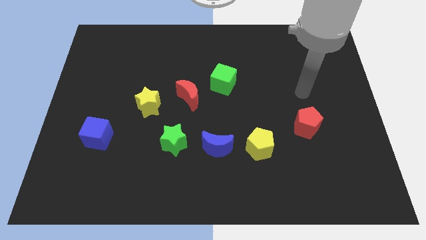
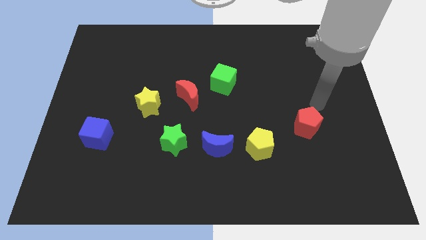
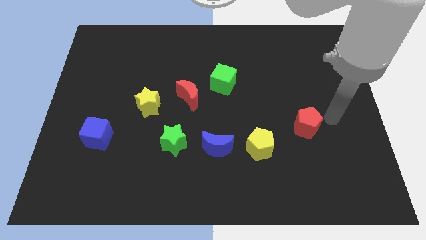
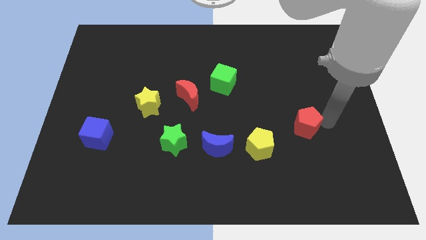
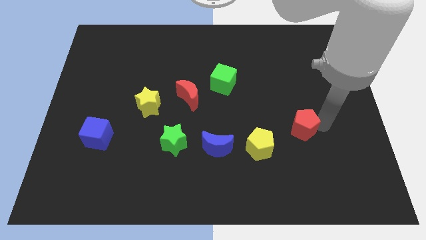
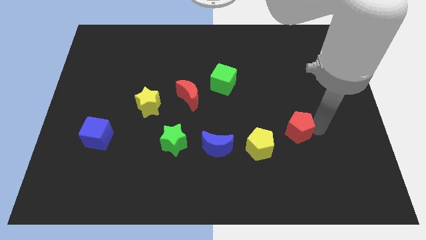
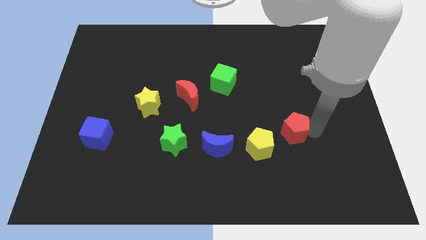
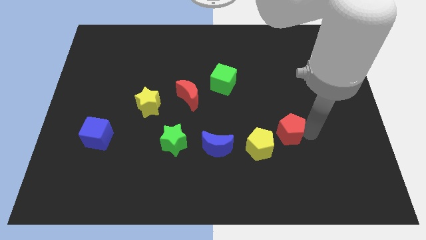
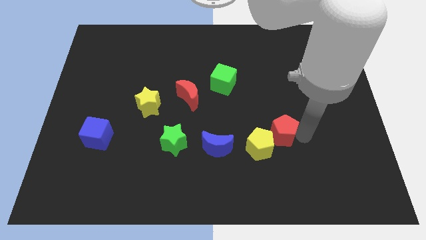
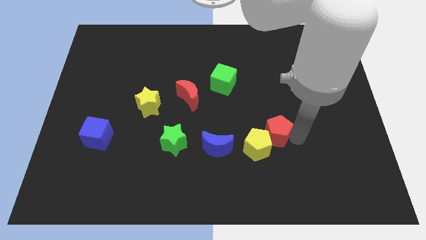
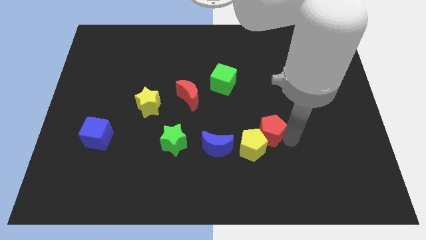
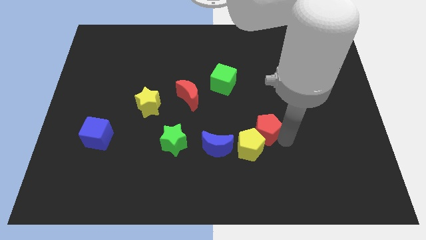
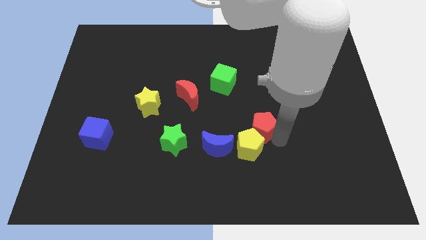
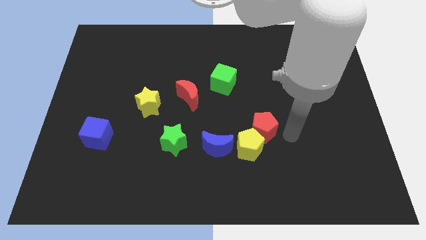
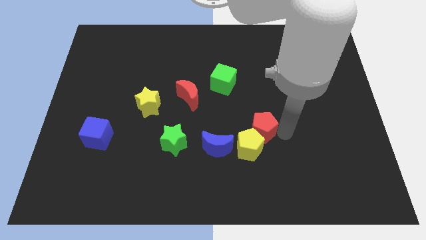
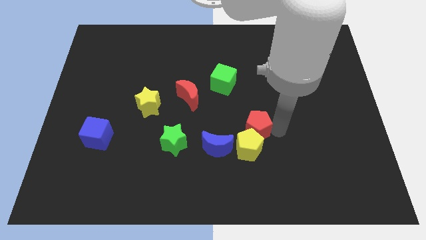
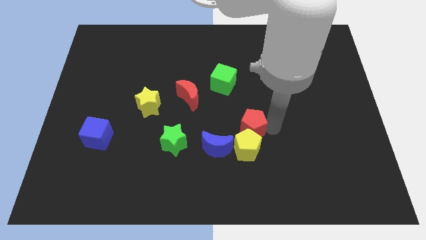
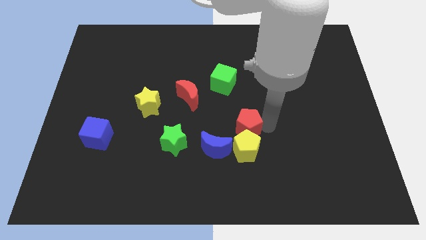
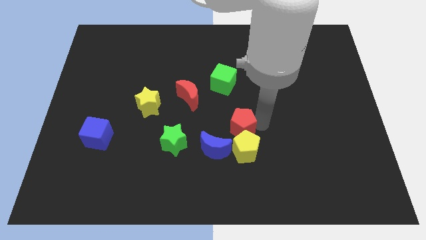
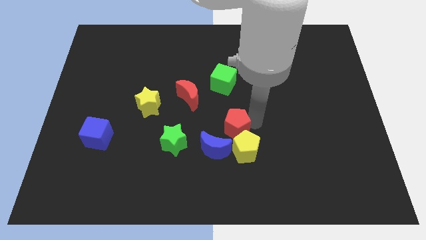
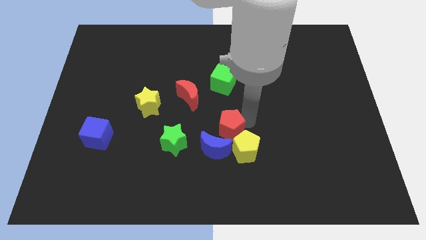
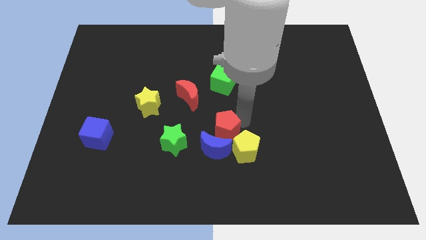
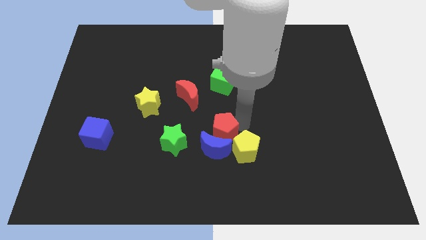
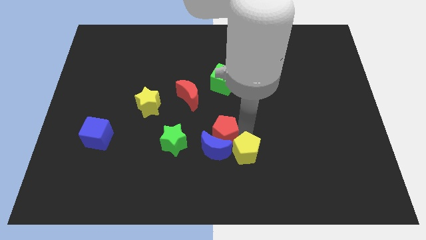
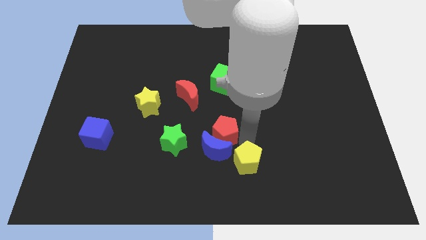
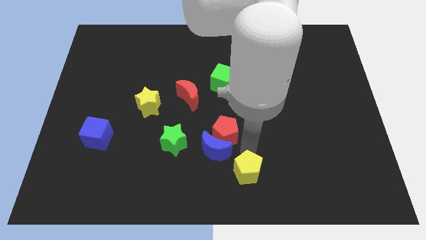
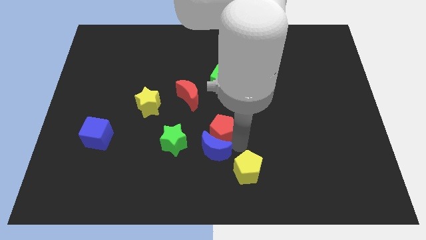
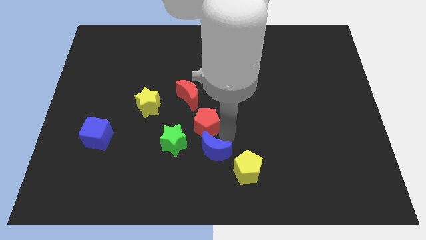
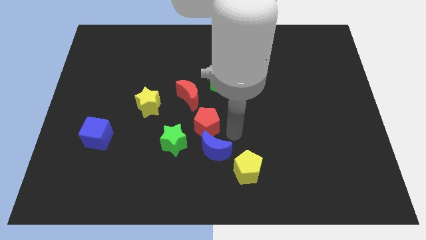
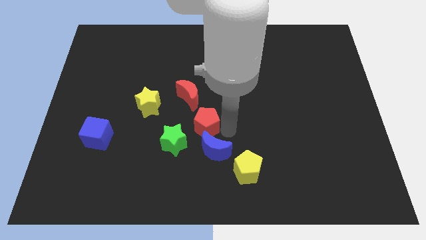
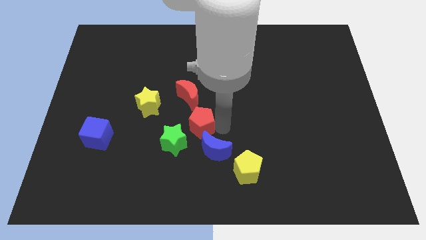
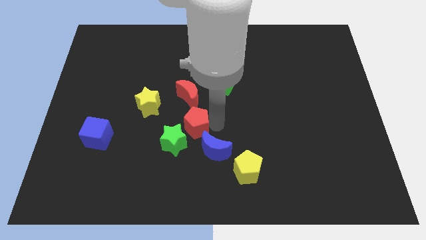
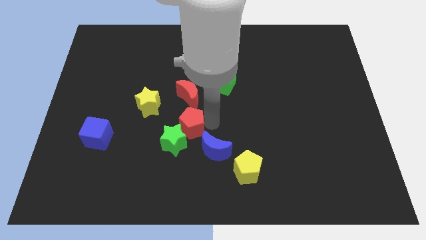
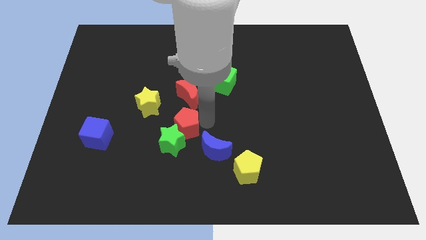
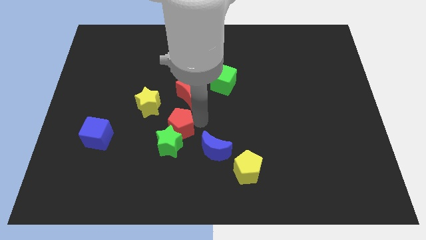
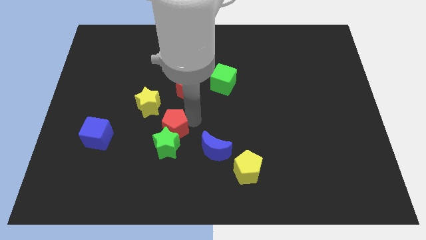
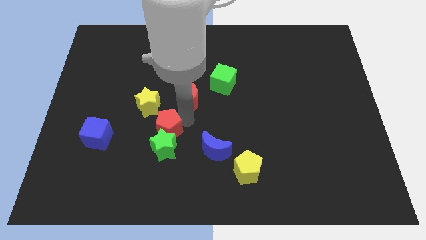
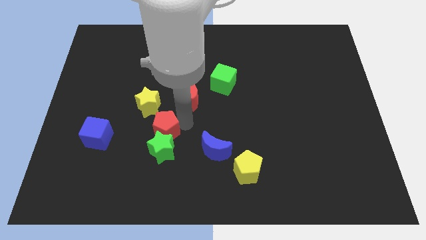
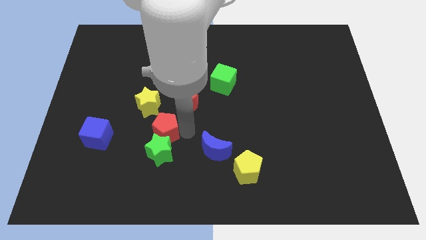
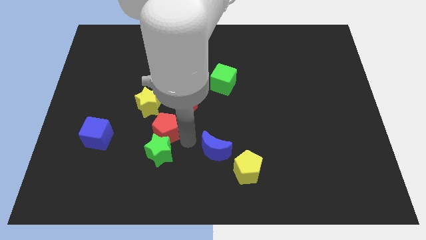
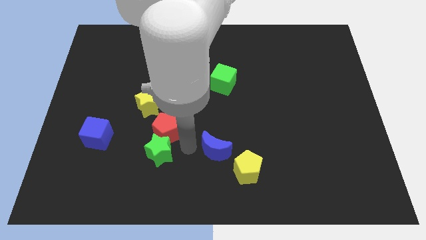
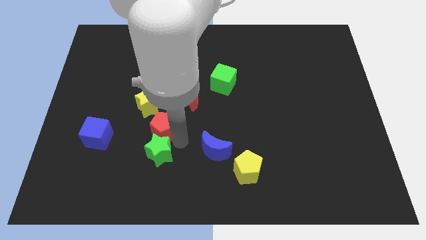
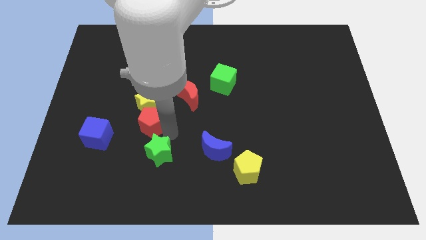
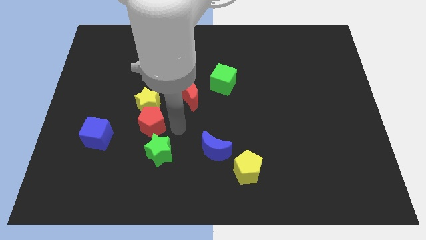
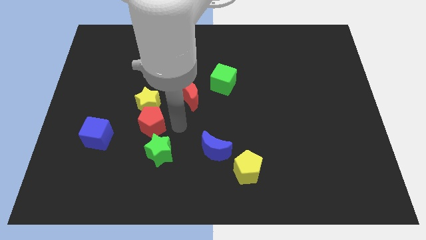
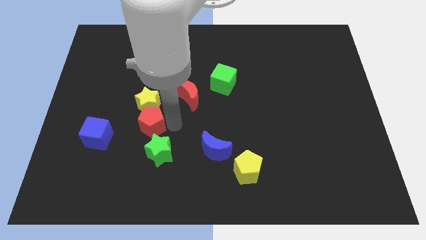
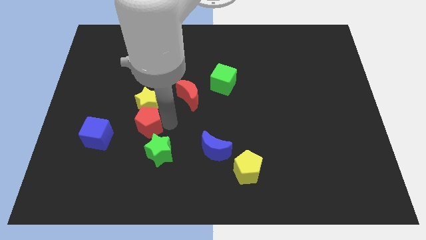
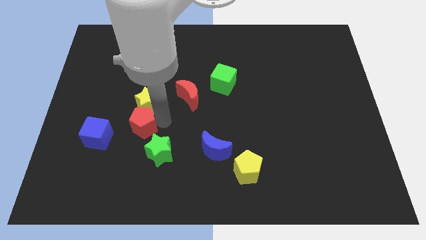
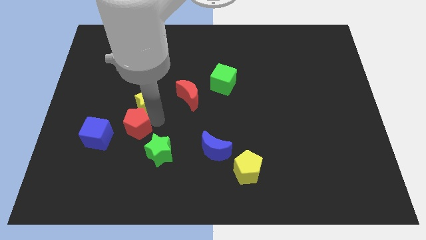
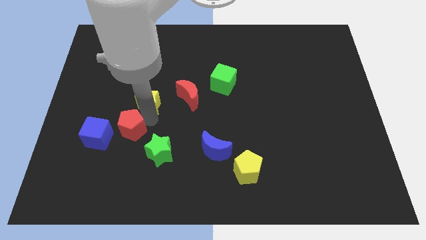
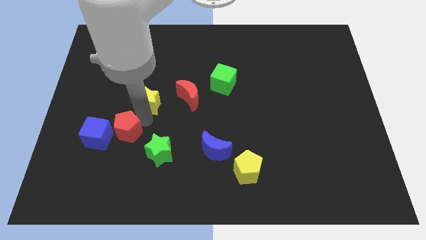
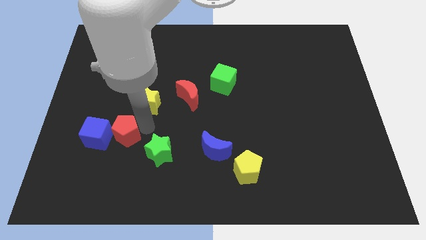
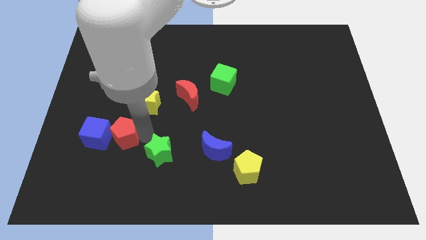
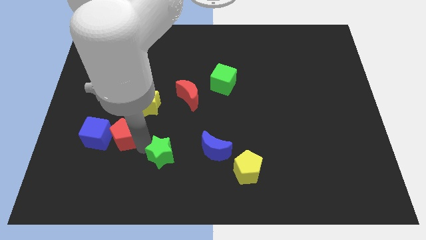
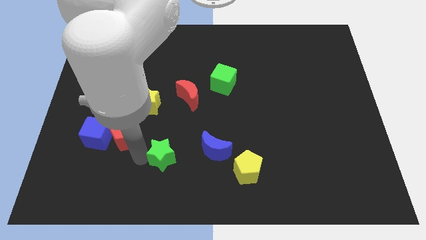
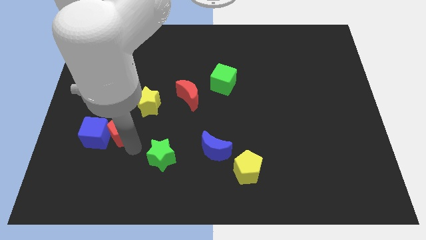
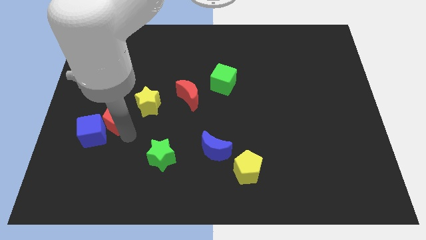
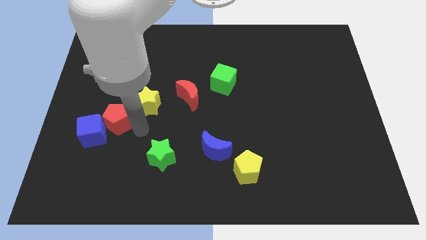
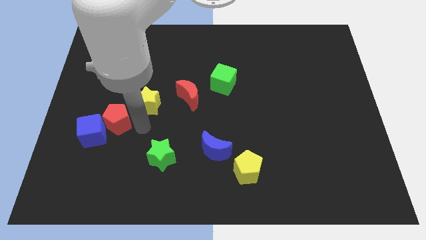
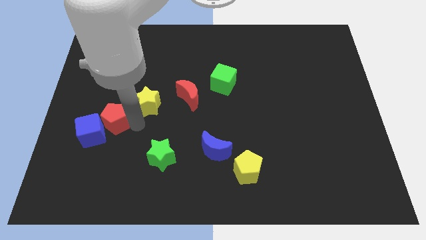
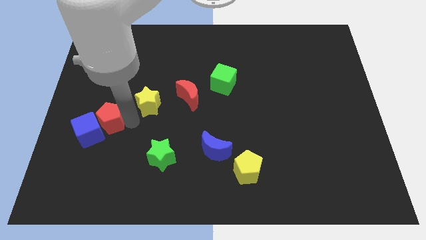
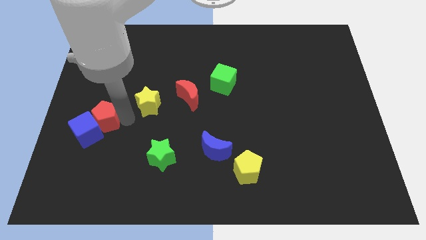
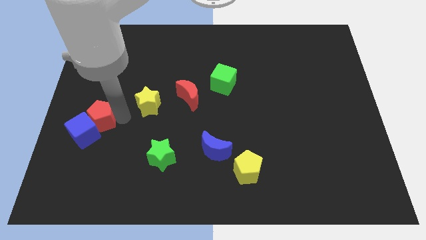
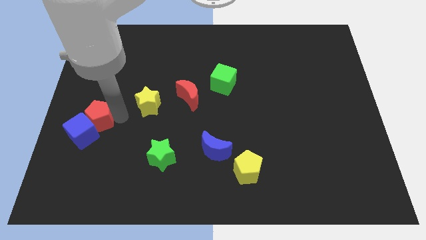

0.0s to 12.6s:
put the red pentagon to the center left

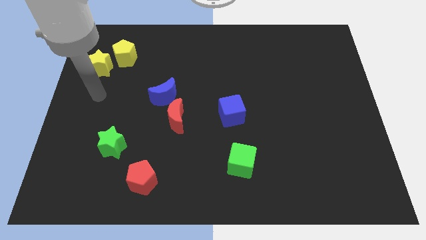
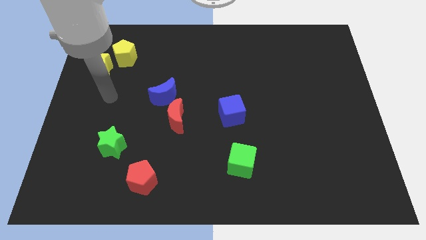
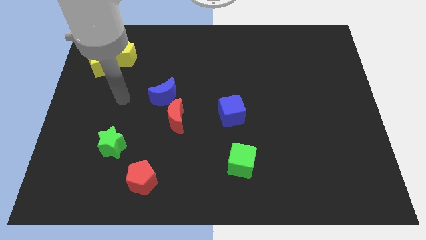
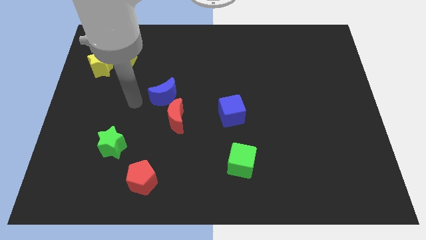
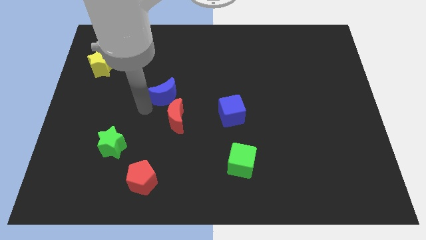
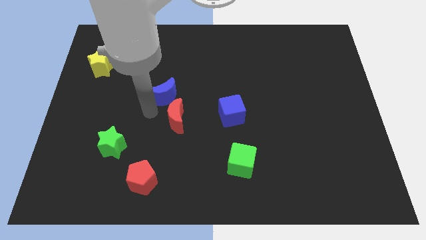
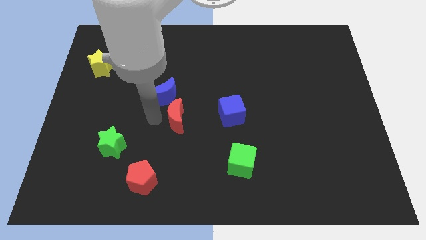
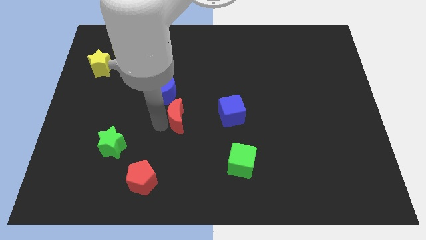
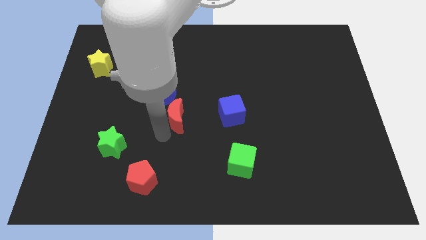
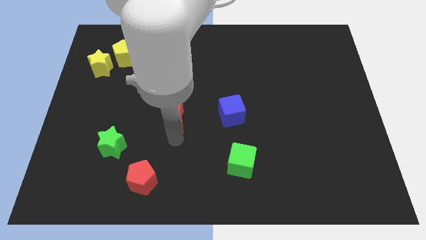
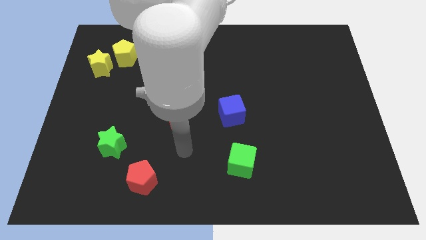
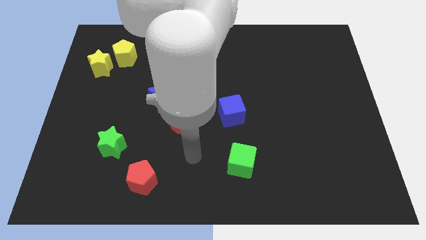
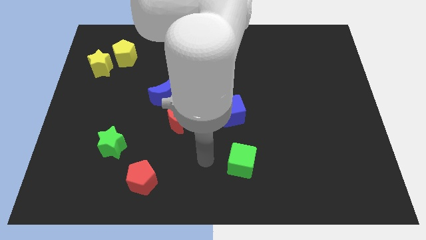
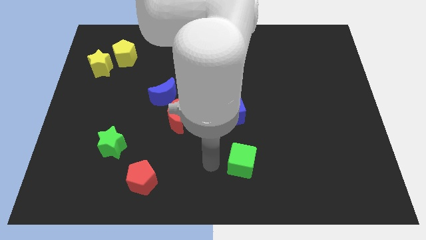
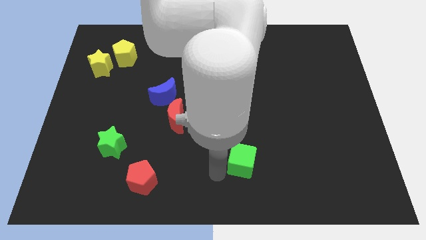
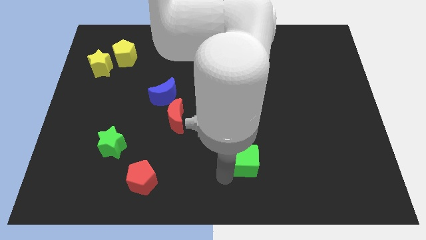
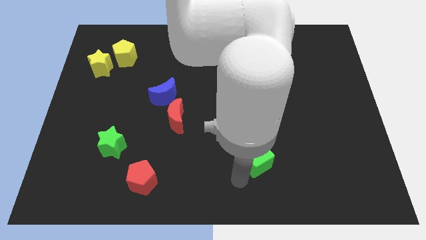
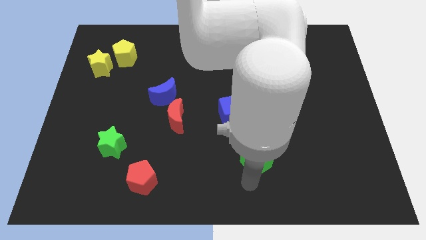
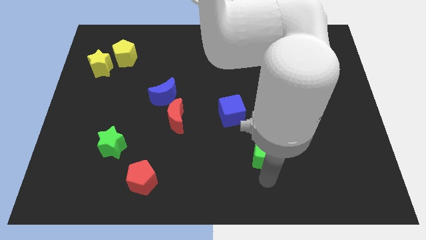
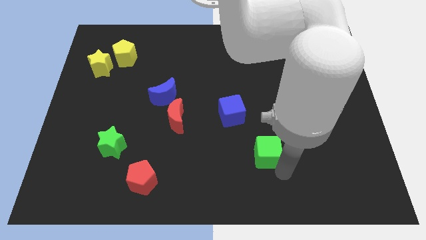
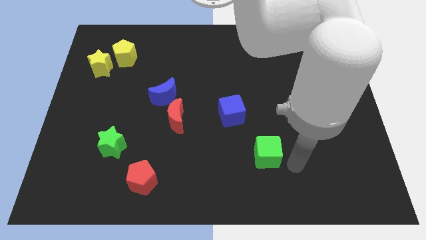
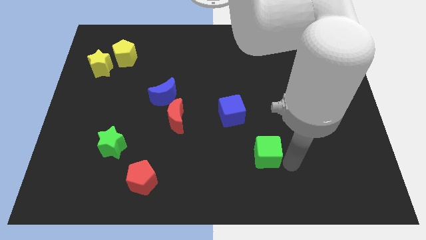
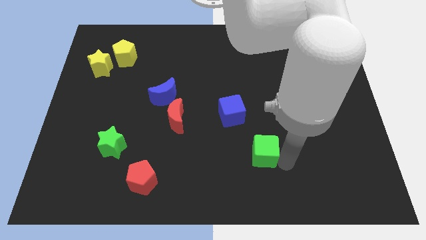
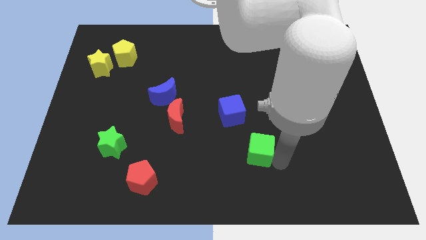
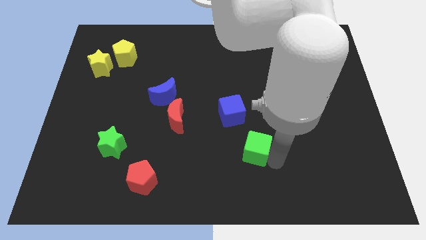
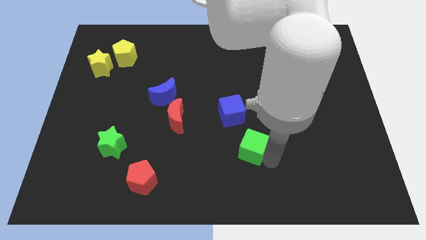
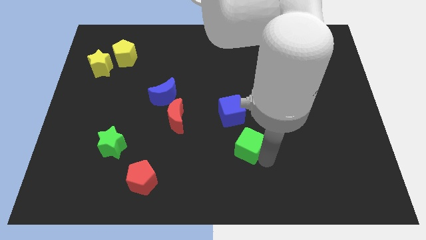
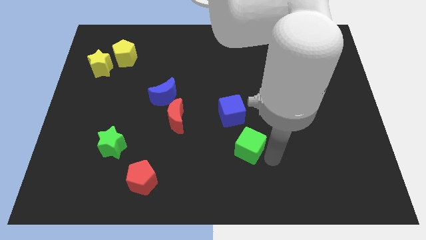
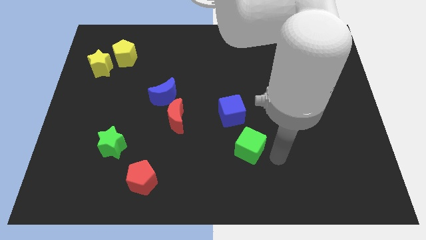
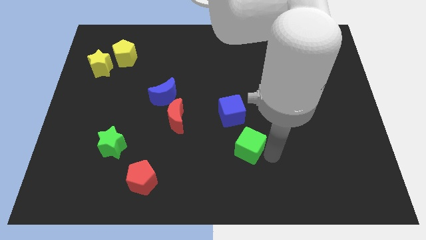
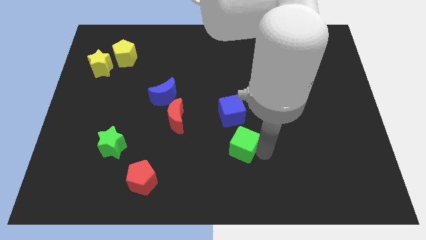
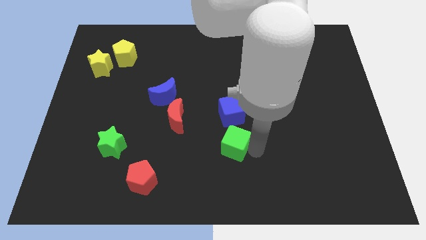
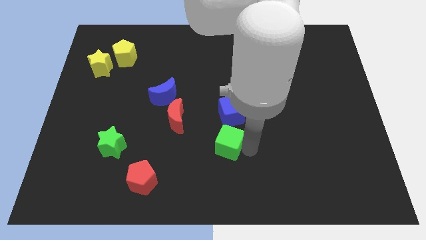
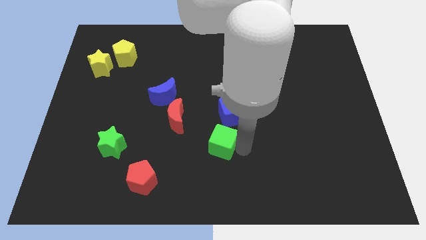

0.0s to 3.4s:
slide the green cube to the center of the board
